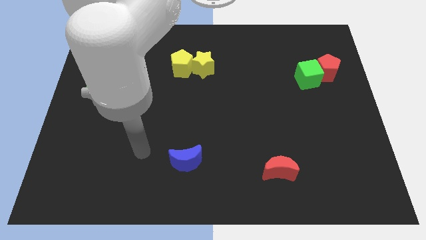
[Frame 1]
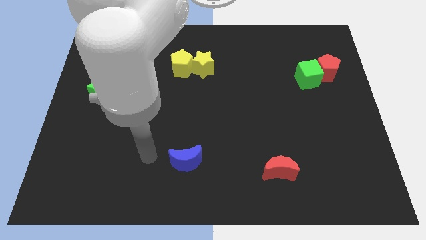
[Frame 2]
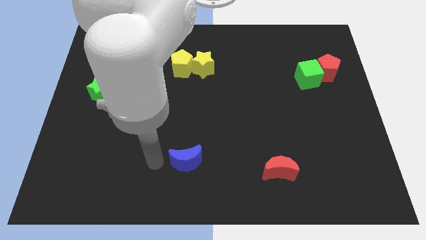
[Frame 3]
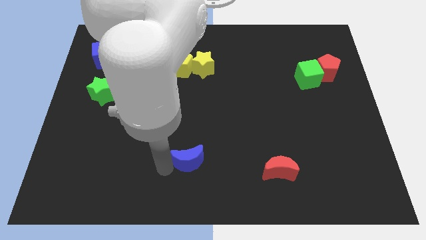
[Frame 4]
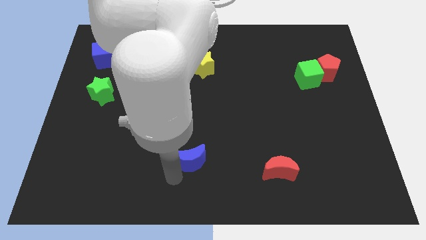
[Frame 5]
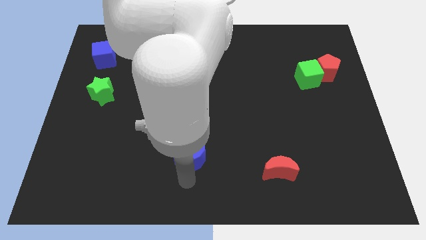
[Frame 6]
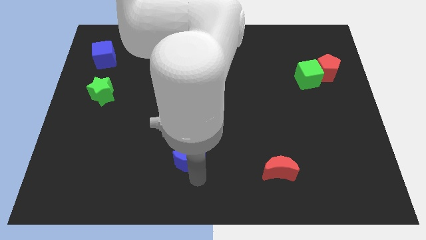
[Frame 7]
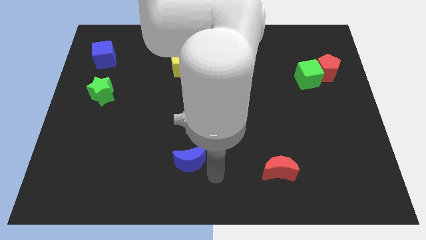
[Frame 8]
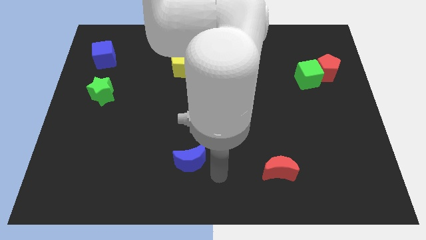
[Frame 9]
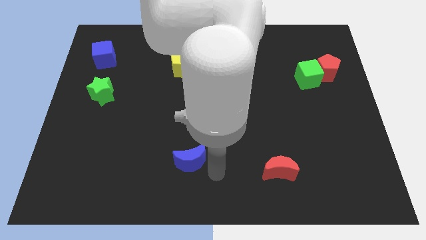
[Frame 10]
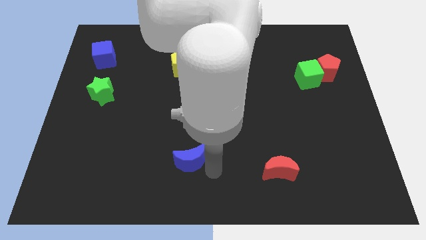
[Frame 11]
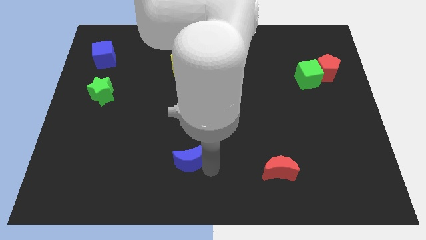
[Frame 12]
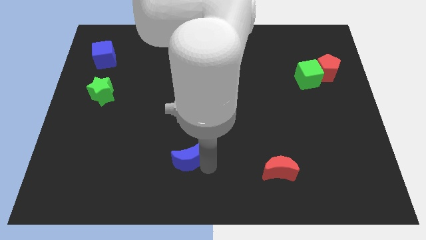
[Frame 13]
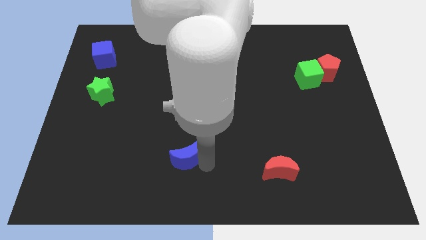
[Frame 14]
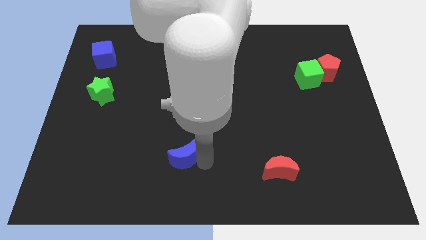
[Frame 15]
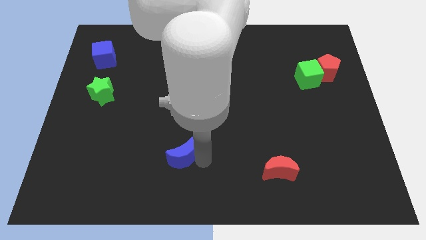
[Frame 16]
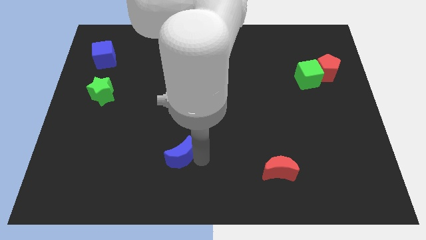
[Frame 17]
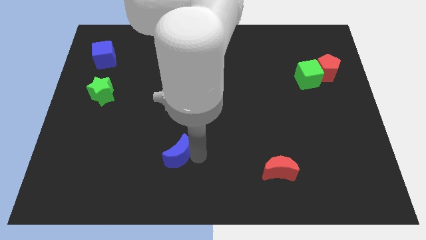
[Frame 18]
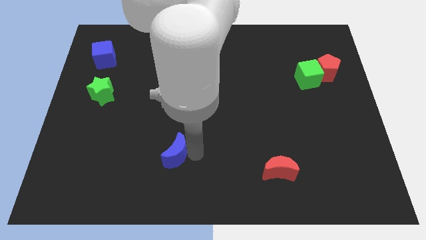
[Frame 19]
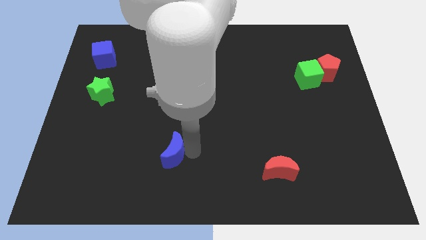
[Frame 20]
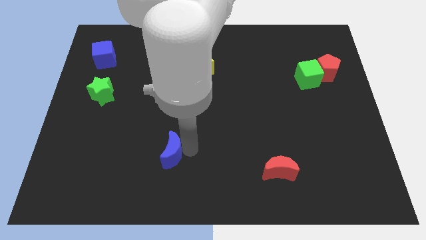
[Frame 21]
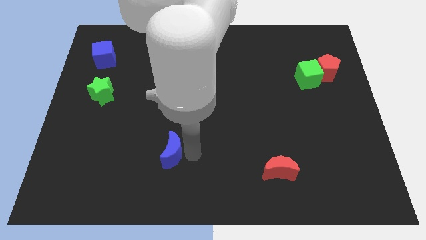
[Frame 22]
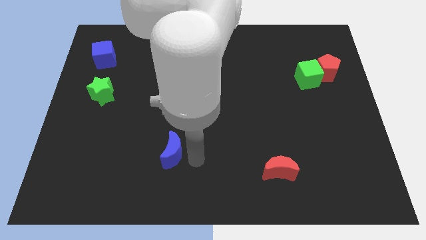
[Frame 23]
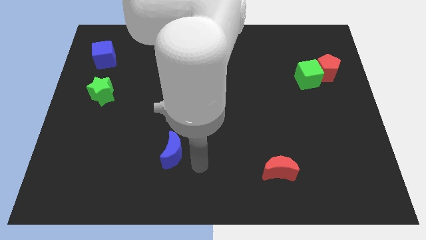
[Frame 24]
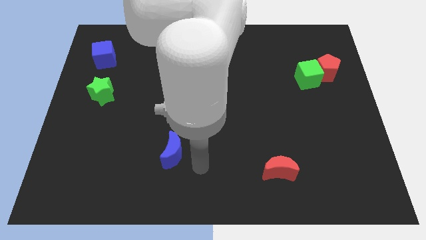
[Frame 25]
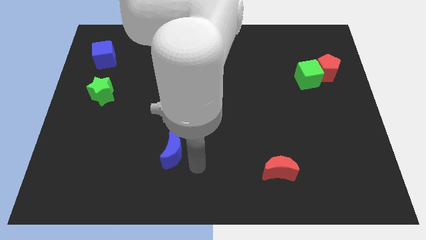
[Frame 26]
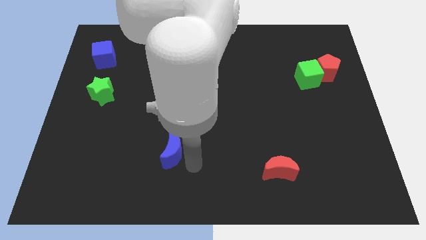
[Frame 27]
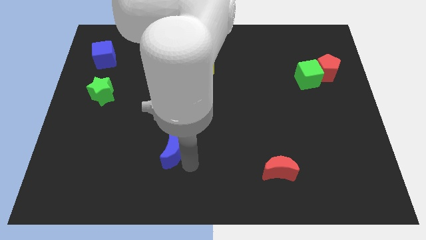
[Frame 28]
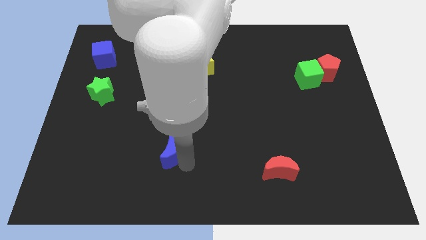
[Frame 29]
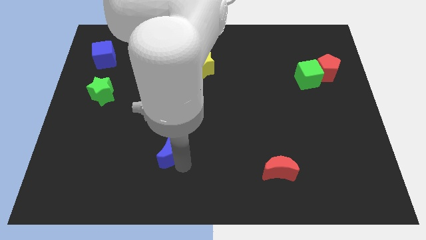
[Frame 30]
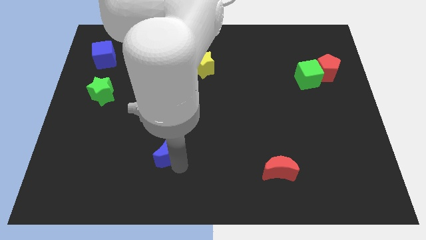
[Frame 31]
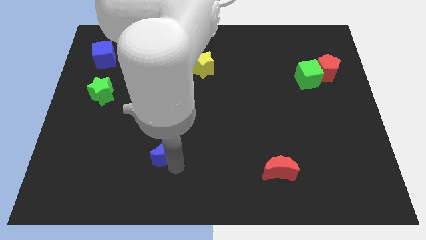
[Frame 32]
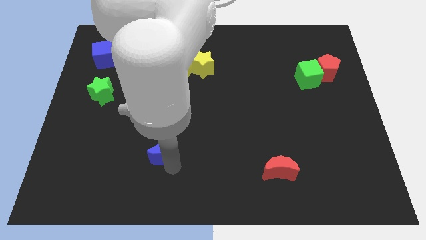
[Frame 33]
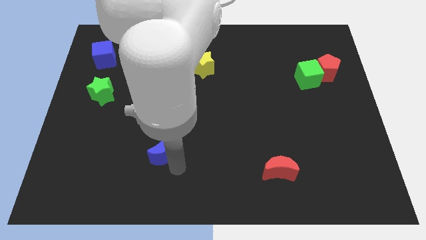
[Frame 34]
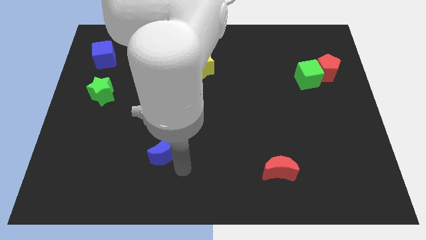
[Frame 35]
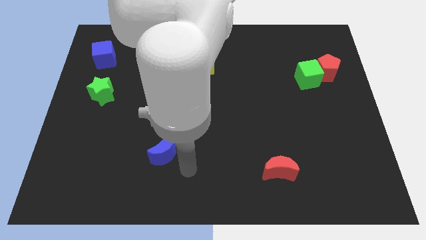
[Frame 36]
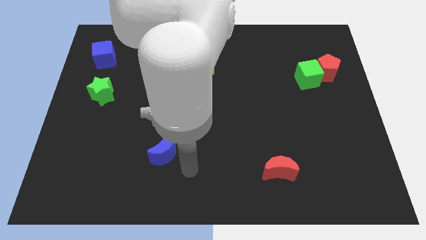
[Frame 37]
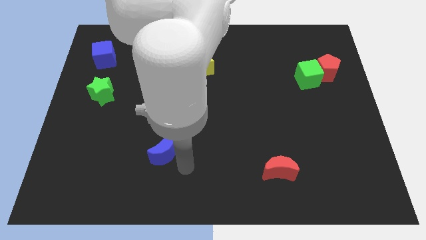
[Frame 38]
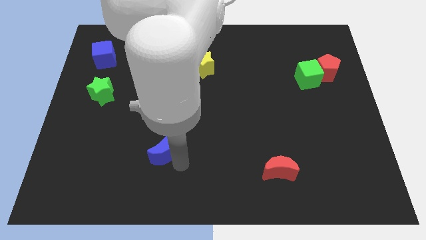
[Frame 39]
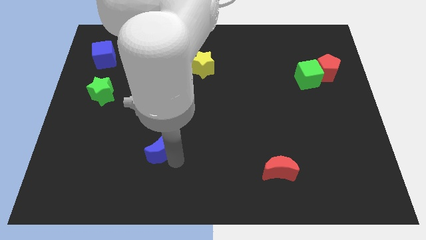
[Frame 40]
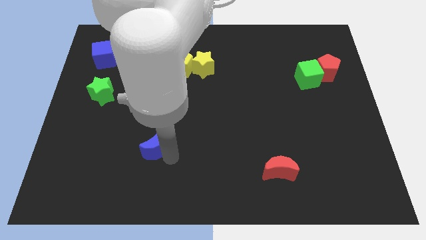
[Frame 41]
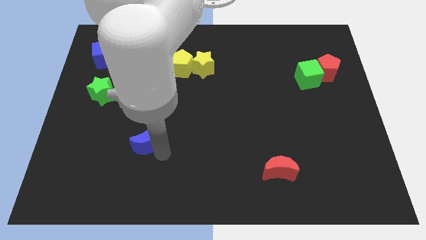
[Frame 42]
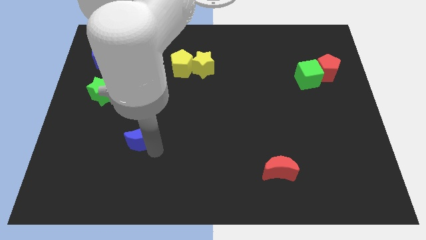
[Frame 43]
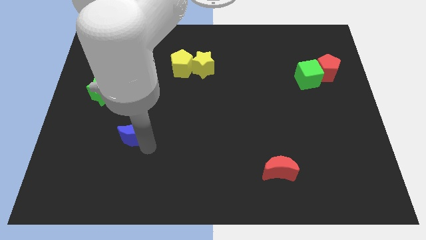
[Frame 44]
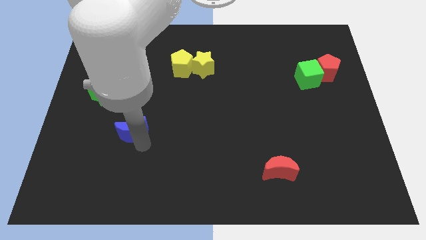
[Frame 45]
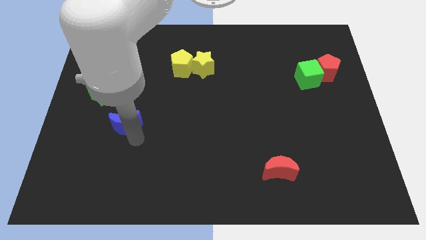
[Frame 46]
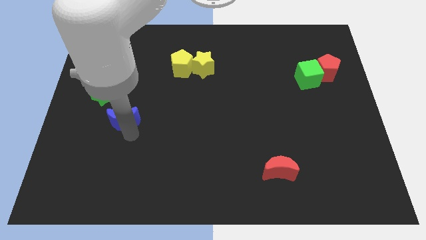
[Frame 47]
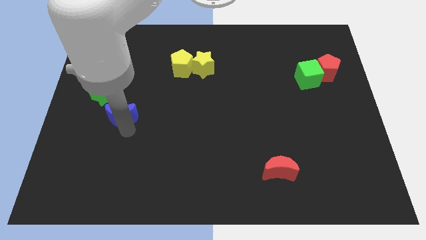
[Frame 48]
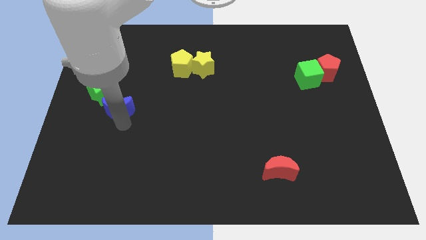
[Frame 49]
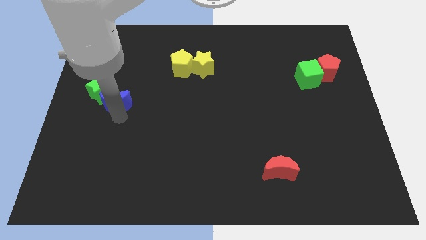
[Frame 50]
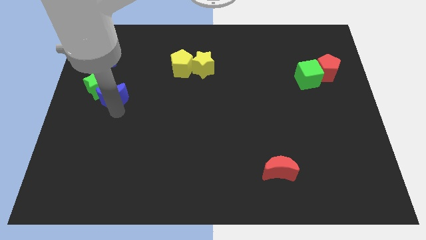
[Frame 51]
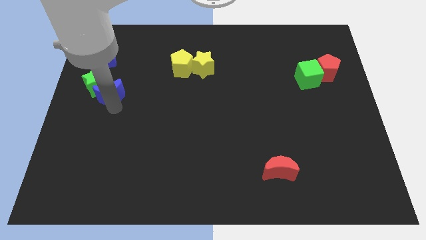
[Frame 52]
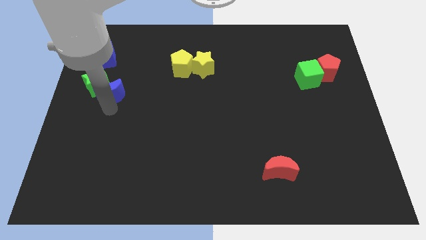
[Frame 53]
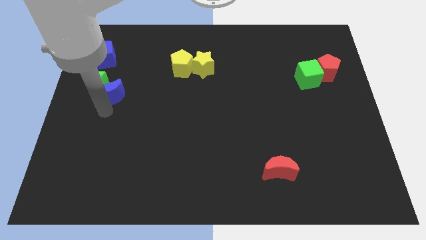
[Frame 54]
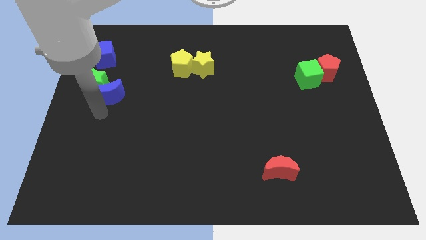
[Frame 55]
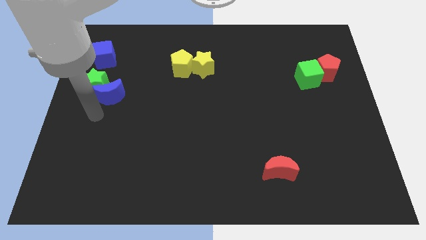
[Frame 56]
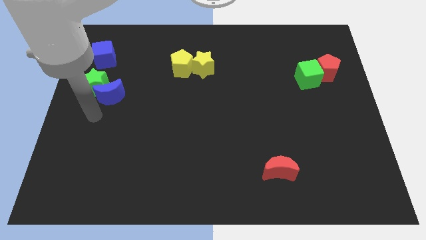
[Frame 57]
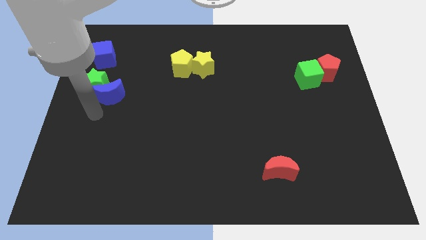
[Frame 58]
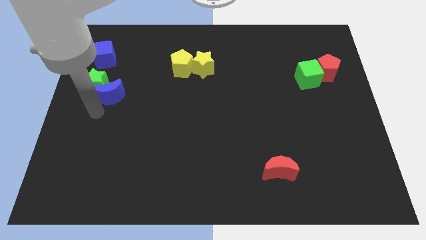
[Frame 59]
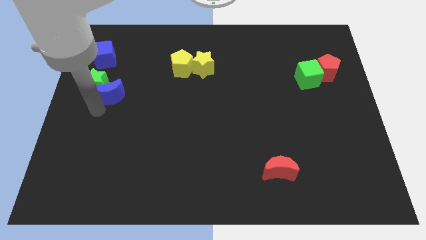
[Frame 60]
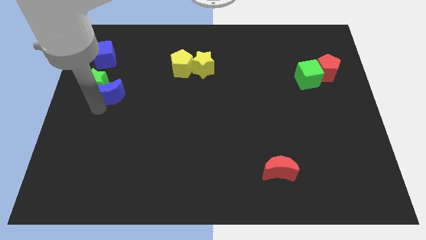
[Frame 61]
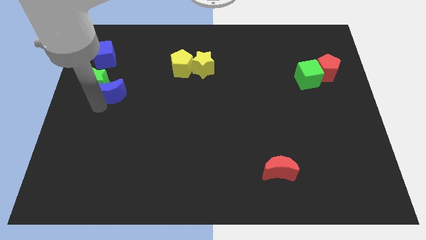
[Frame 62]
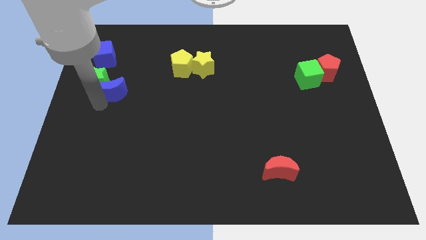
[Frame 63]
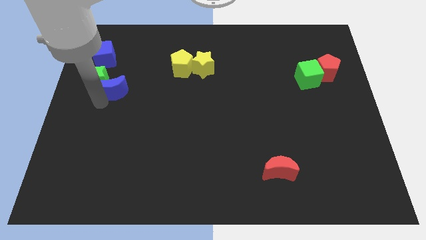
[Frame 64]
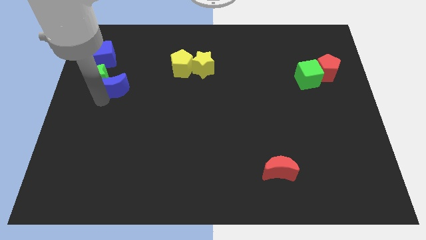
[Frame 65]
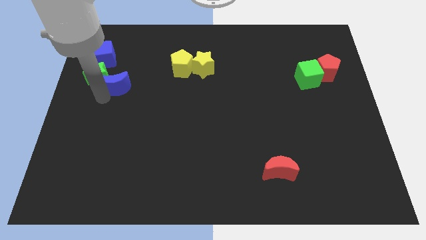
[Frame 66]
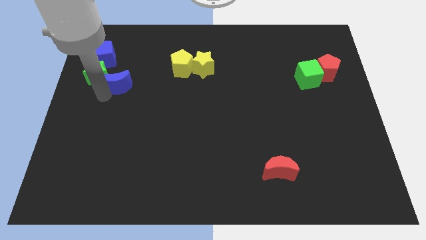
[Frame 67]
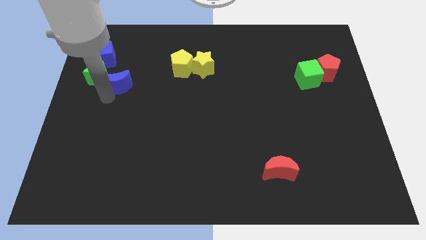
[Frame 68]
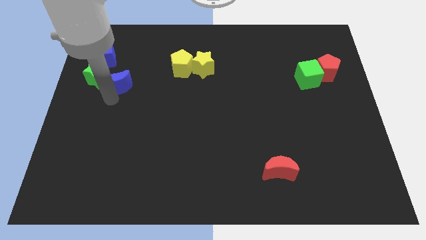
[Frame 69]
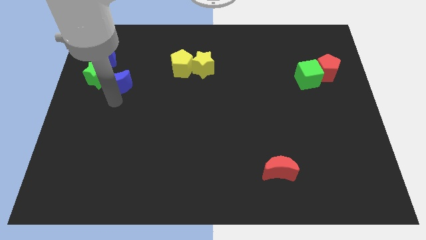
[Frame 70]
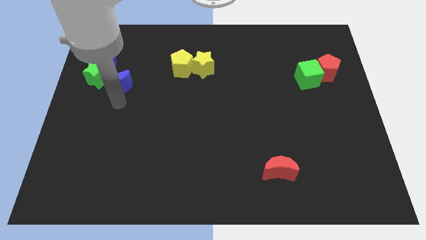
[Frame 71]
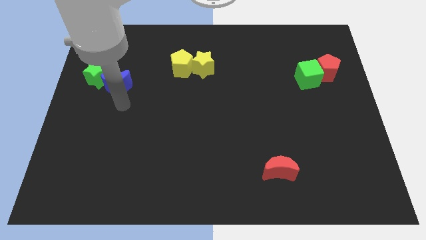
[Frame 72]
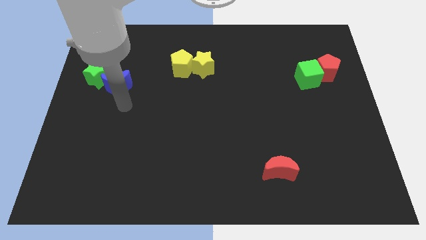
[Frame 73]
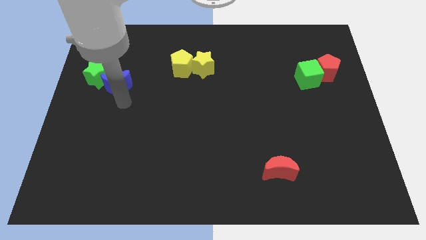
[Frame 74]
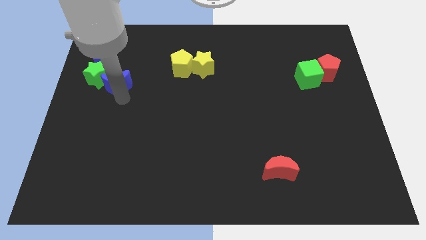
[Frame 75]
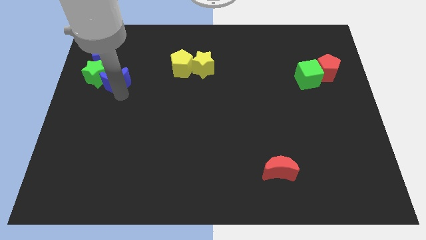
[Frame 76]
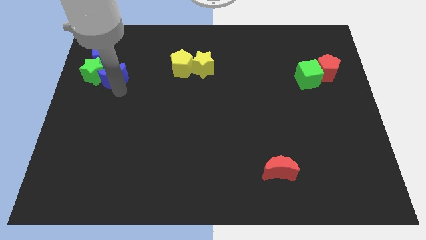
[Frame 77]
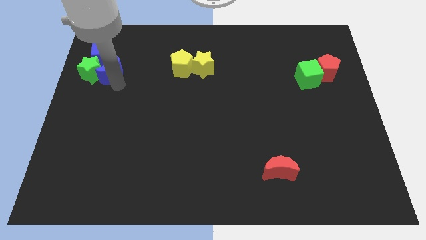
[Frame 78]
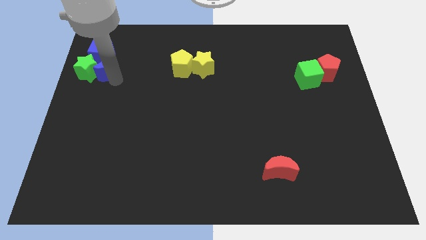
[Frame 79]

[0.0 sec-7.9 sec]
move the blue moon to the blue cube
